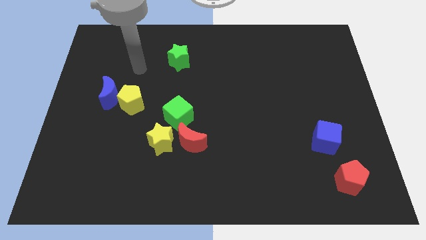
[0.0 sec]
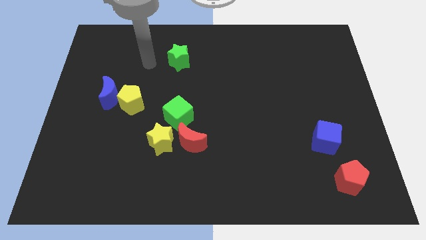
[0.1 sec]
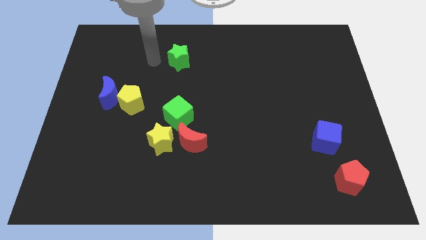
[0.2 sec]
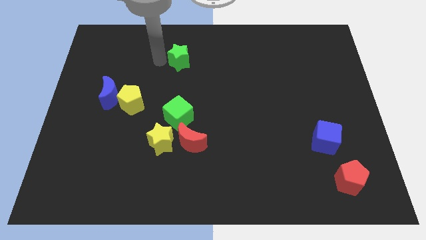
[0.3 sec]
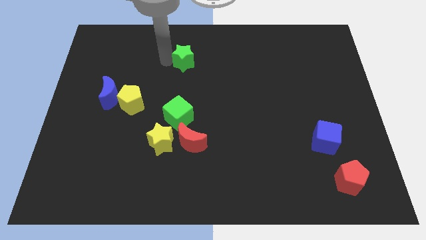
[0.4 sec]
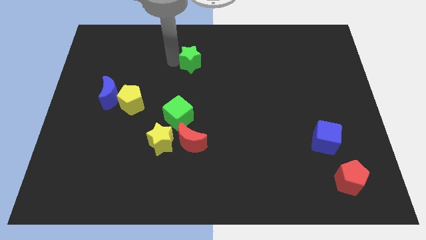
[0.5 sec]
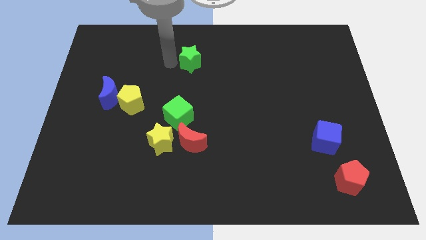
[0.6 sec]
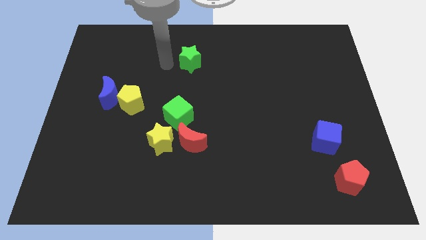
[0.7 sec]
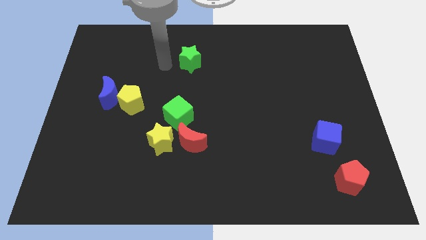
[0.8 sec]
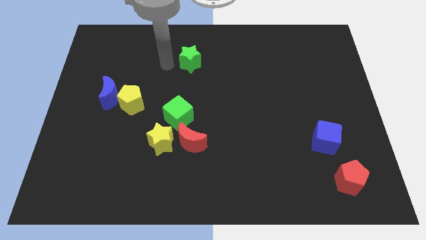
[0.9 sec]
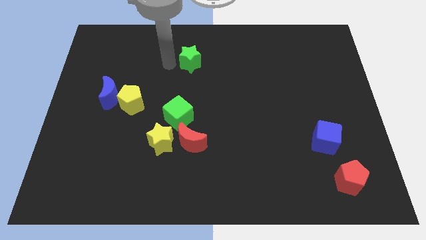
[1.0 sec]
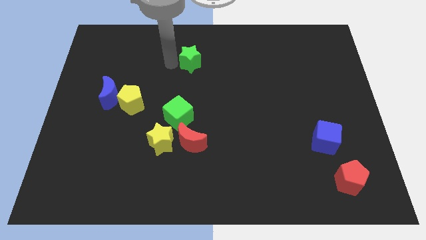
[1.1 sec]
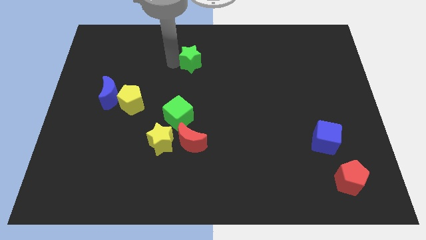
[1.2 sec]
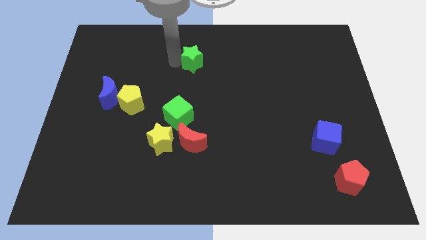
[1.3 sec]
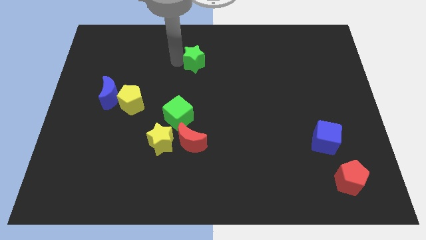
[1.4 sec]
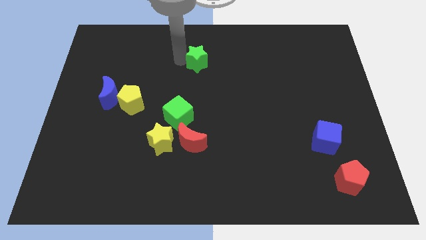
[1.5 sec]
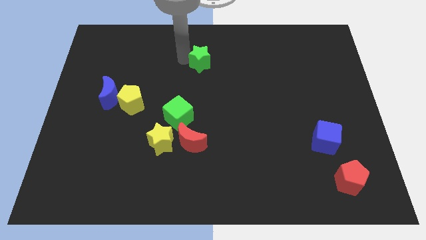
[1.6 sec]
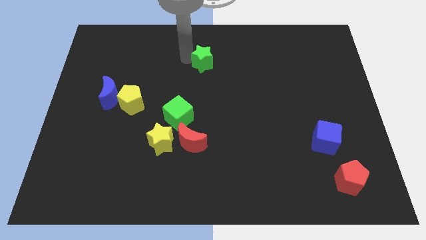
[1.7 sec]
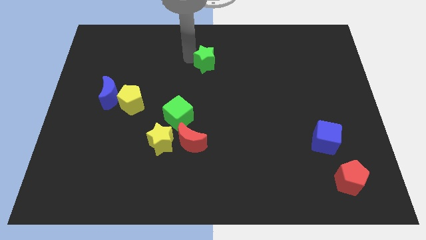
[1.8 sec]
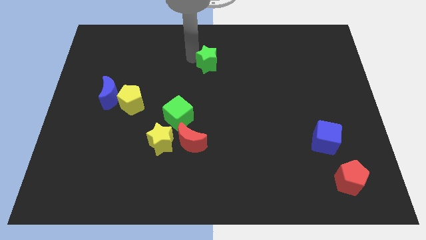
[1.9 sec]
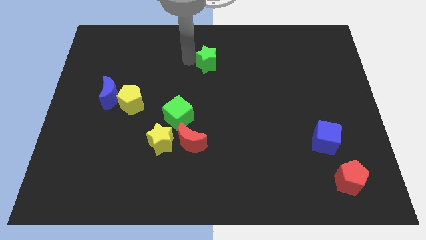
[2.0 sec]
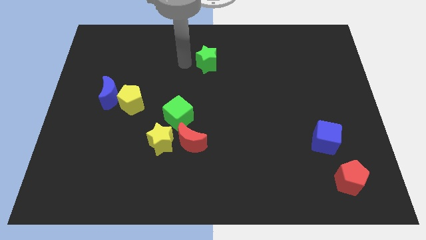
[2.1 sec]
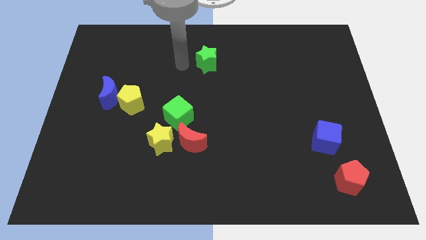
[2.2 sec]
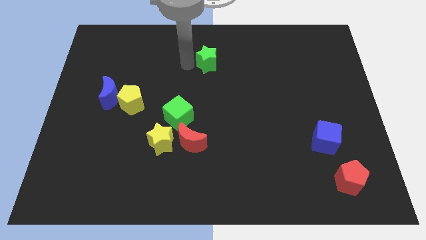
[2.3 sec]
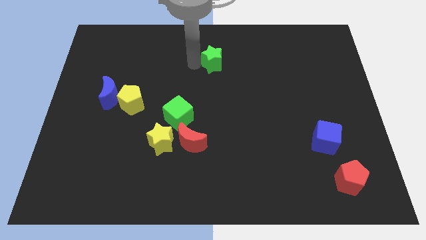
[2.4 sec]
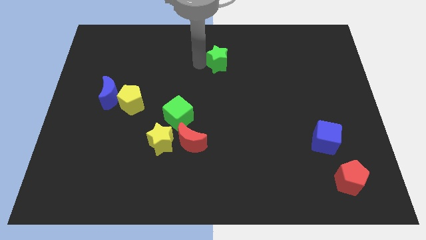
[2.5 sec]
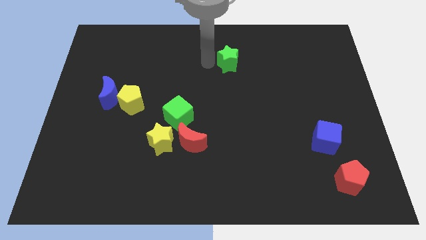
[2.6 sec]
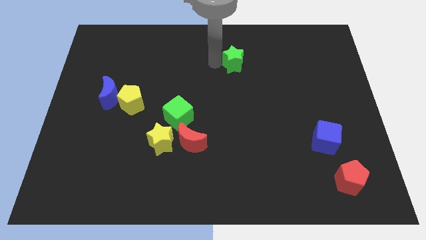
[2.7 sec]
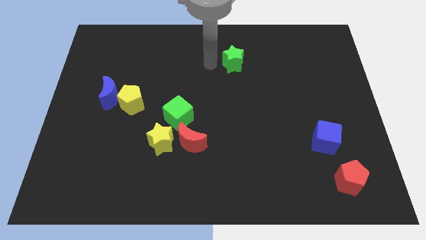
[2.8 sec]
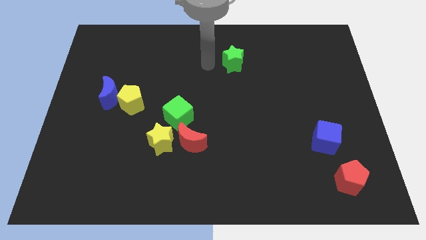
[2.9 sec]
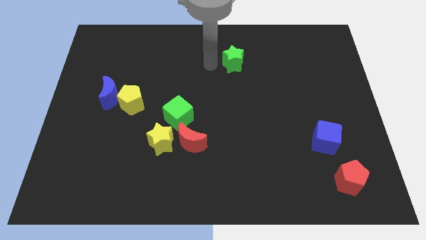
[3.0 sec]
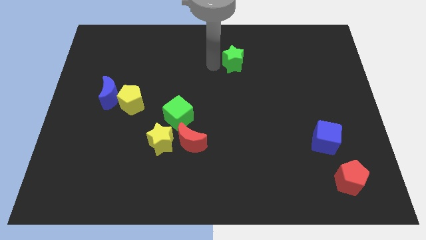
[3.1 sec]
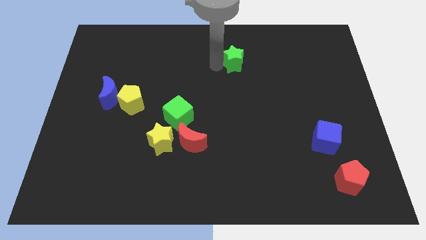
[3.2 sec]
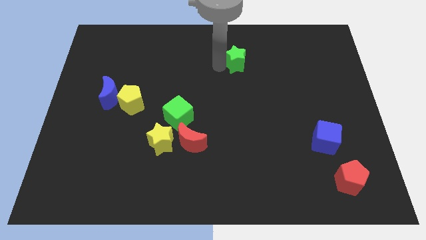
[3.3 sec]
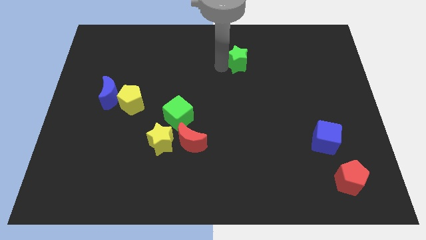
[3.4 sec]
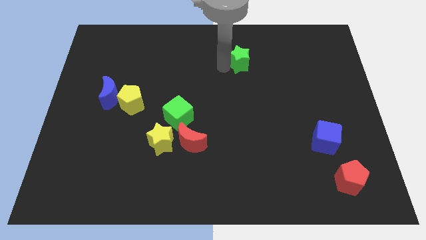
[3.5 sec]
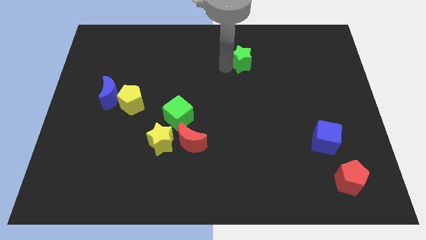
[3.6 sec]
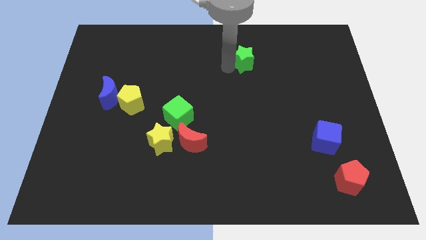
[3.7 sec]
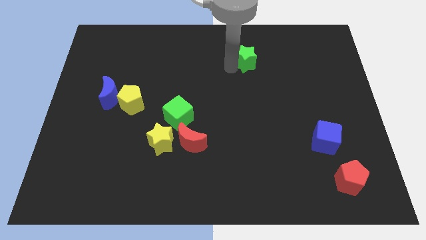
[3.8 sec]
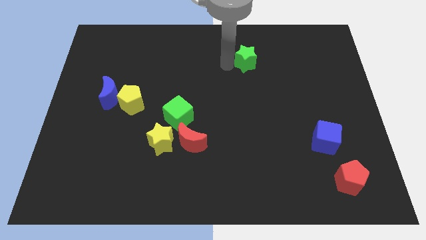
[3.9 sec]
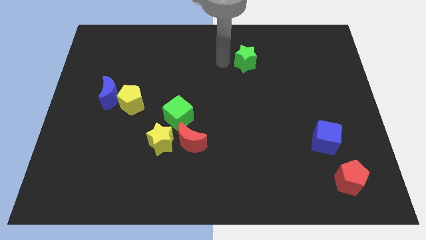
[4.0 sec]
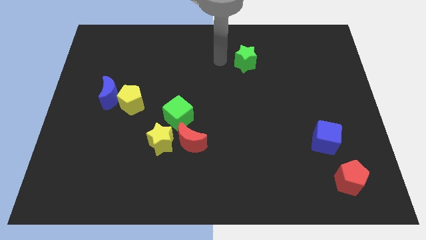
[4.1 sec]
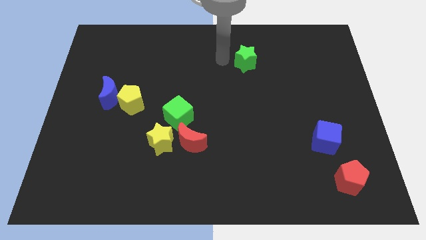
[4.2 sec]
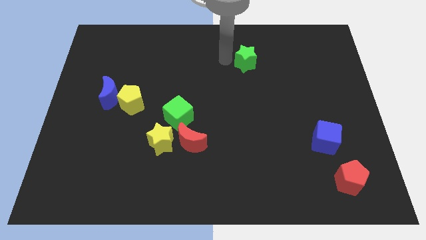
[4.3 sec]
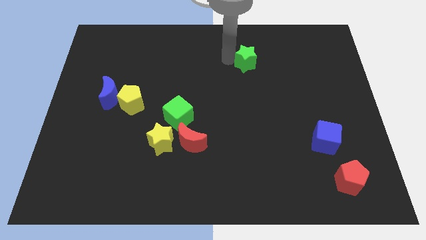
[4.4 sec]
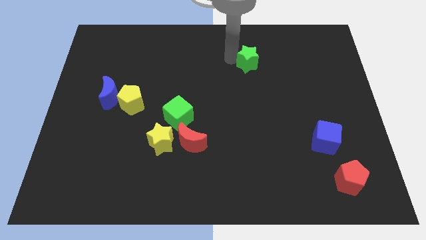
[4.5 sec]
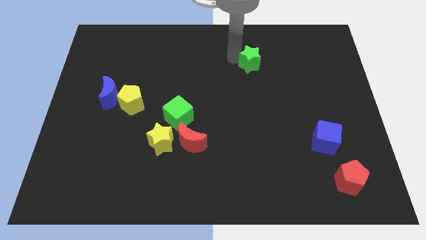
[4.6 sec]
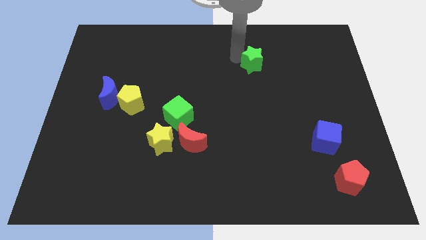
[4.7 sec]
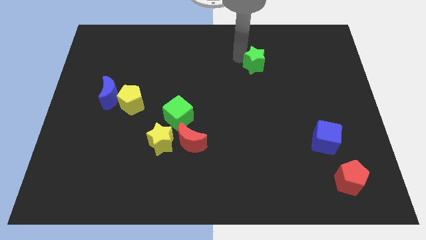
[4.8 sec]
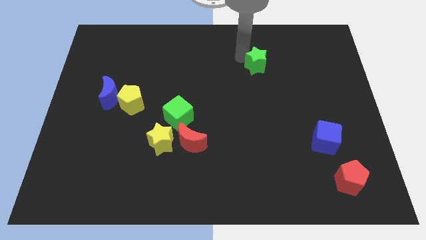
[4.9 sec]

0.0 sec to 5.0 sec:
slide the green star to the right

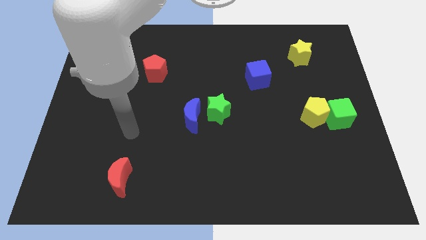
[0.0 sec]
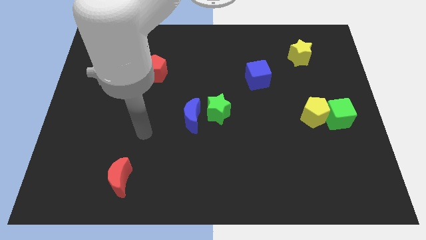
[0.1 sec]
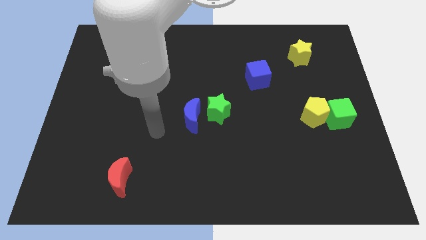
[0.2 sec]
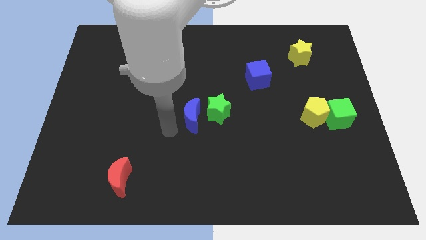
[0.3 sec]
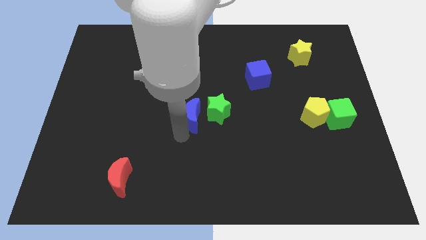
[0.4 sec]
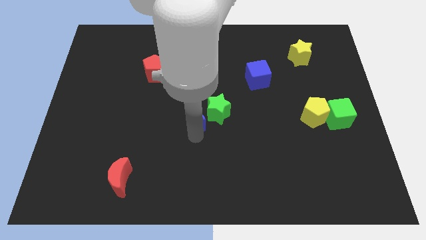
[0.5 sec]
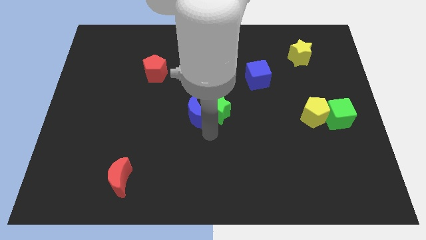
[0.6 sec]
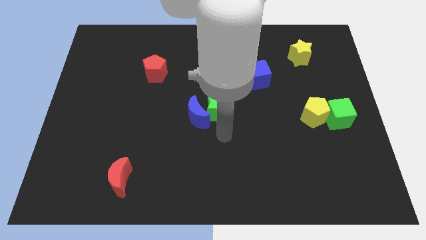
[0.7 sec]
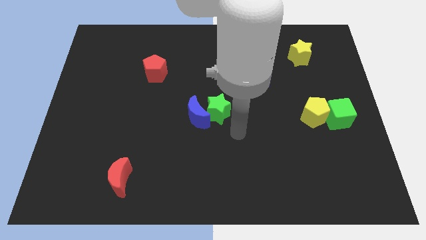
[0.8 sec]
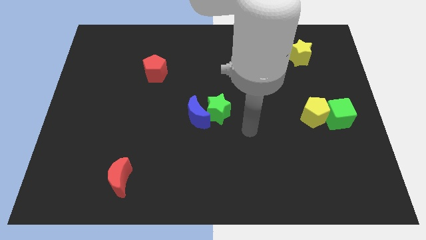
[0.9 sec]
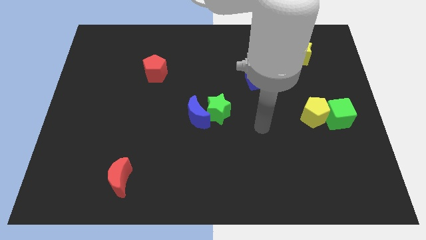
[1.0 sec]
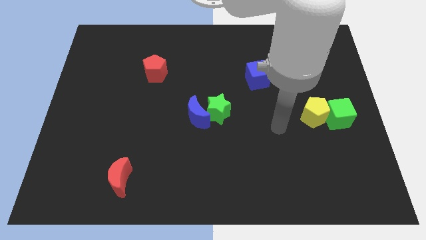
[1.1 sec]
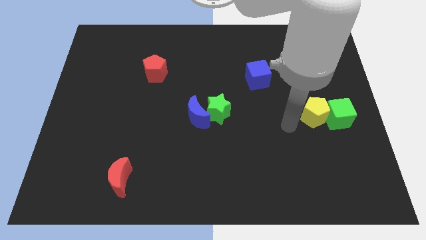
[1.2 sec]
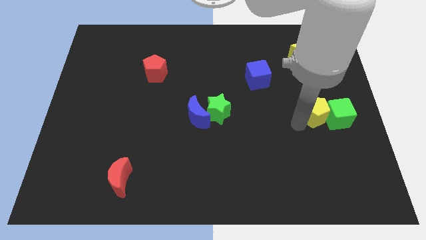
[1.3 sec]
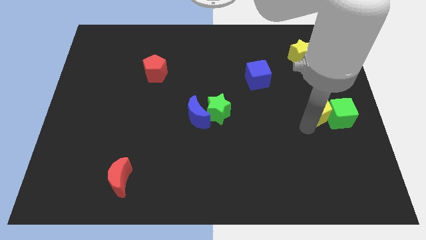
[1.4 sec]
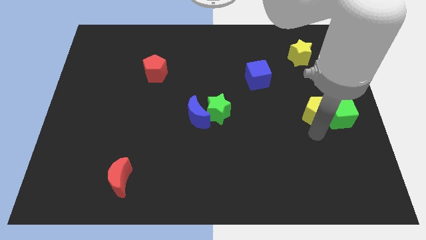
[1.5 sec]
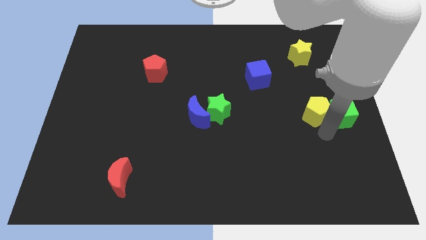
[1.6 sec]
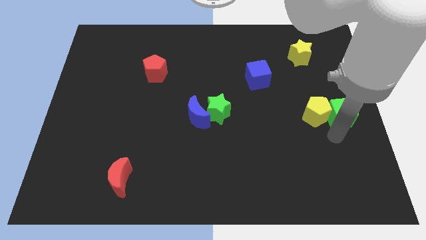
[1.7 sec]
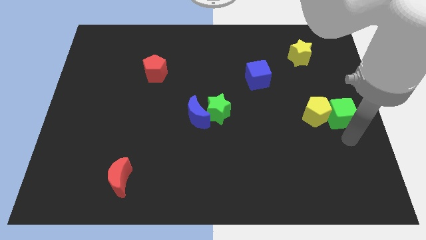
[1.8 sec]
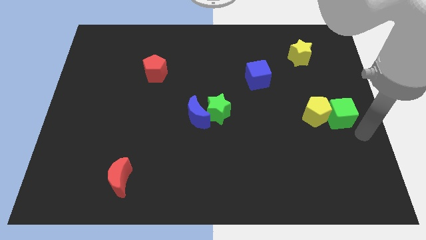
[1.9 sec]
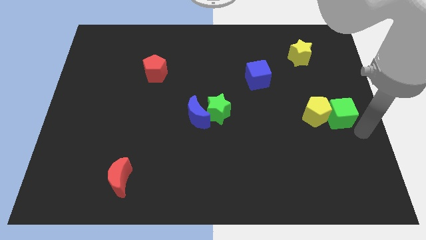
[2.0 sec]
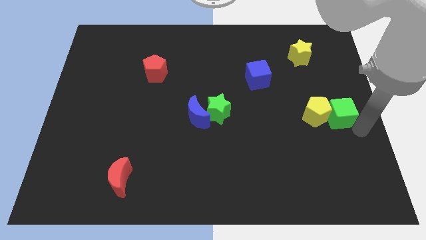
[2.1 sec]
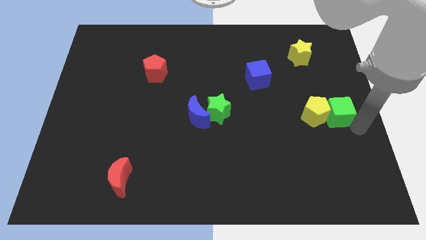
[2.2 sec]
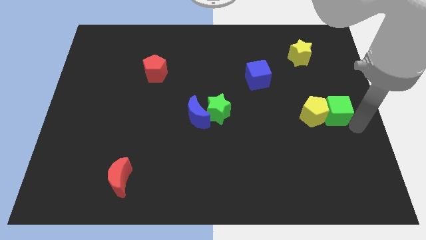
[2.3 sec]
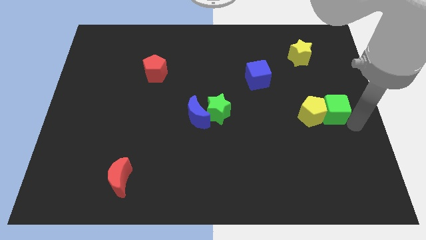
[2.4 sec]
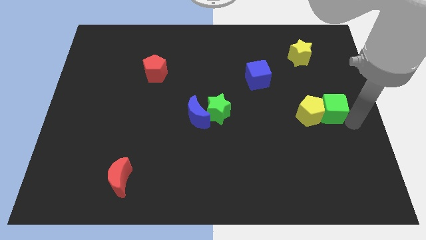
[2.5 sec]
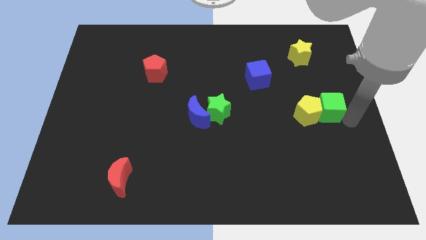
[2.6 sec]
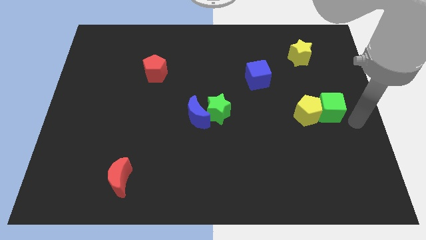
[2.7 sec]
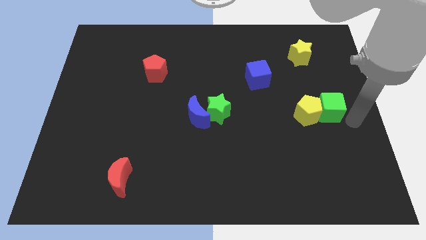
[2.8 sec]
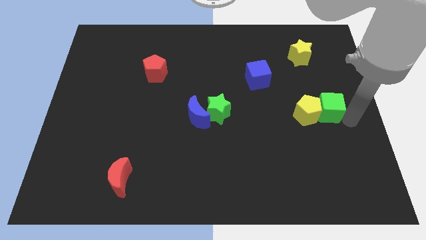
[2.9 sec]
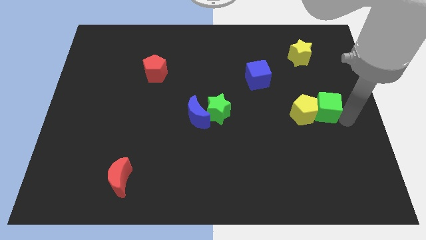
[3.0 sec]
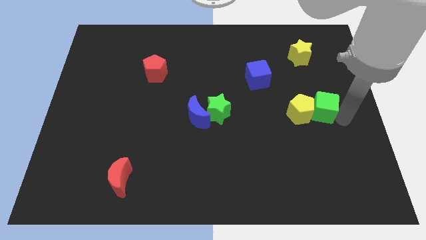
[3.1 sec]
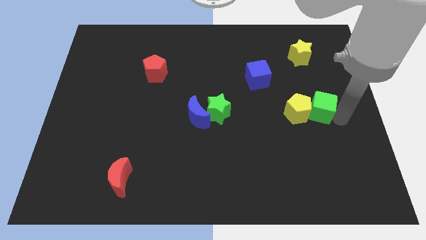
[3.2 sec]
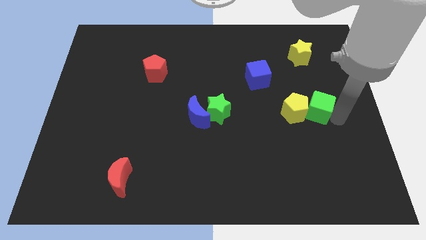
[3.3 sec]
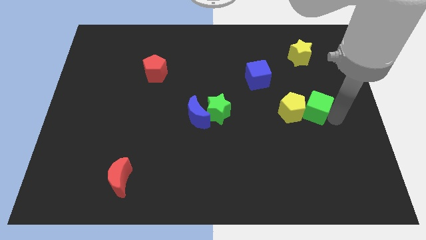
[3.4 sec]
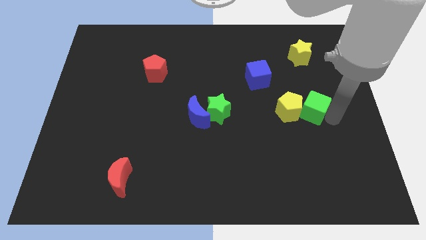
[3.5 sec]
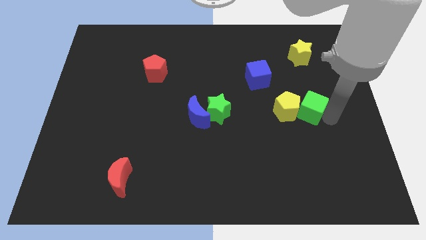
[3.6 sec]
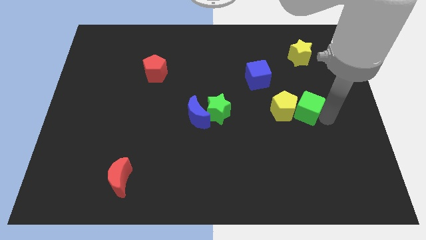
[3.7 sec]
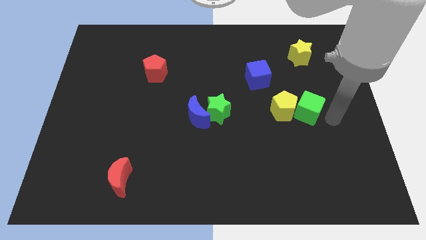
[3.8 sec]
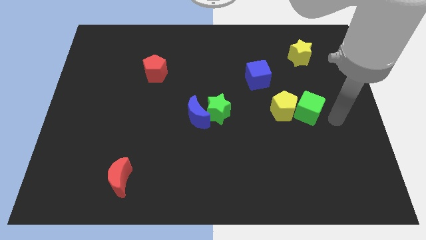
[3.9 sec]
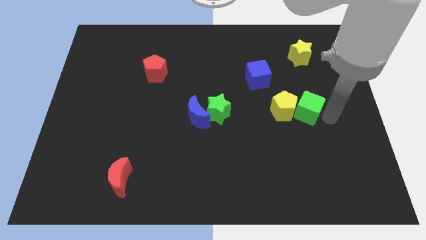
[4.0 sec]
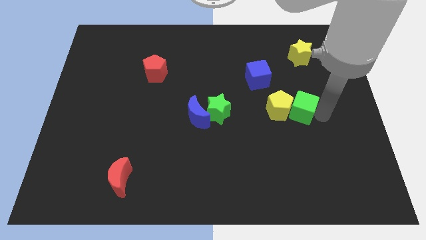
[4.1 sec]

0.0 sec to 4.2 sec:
move the green cube left slightly
